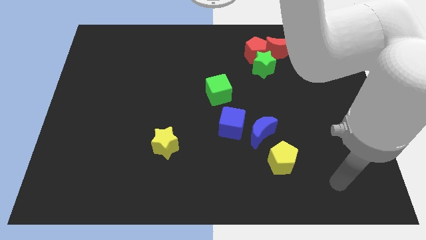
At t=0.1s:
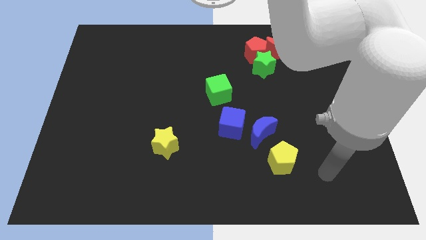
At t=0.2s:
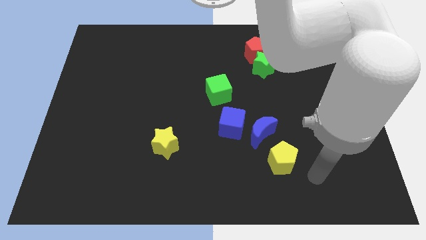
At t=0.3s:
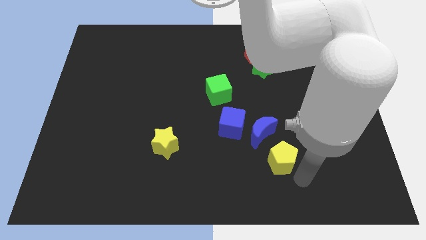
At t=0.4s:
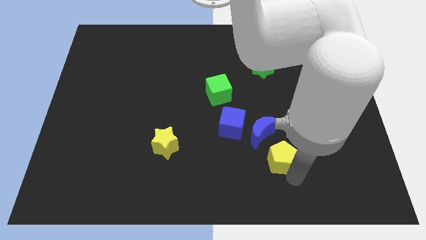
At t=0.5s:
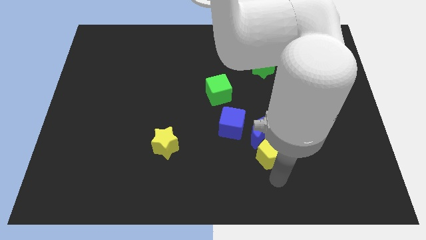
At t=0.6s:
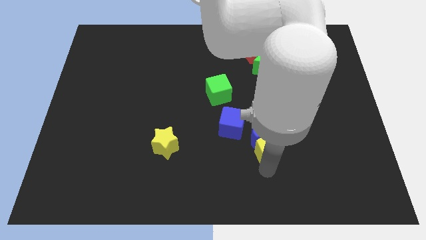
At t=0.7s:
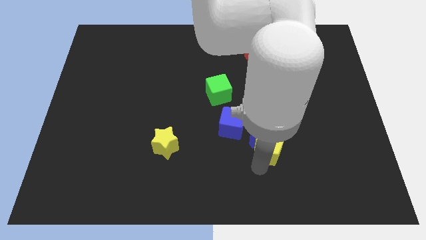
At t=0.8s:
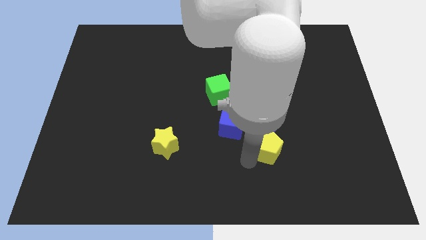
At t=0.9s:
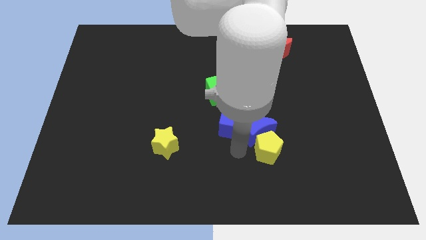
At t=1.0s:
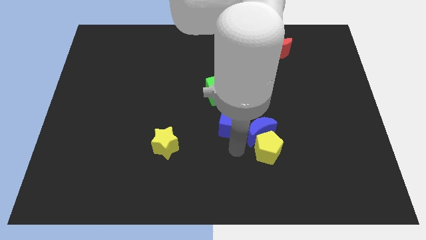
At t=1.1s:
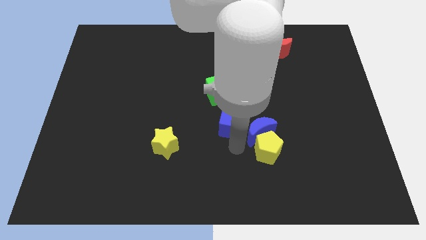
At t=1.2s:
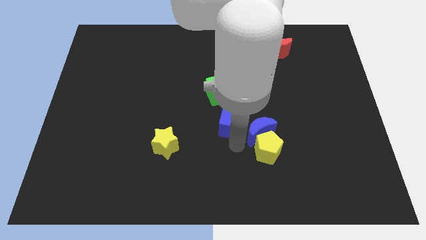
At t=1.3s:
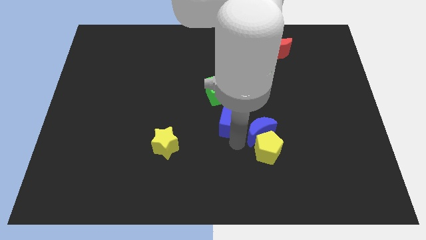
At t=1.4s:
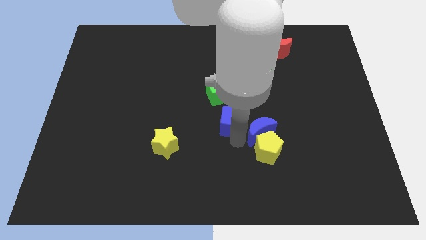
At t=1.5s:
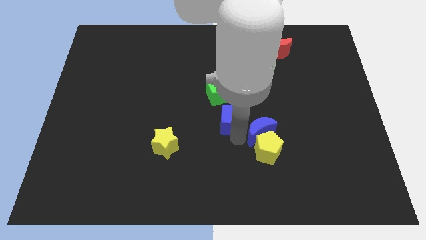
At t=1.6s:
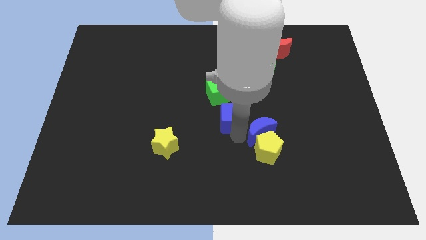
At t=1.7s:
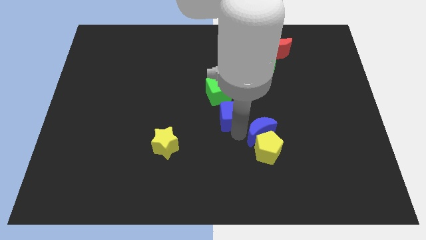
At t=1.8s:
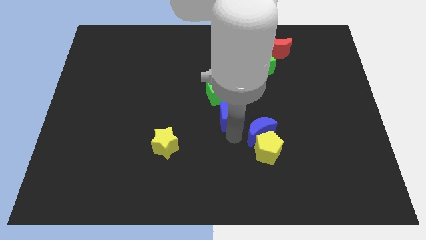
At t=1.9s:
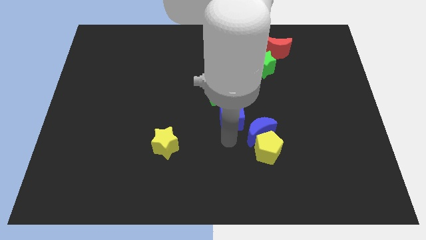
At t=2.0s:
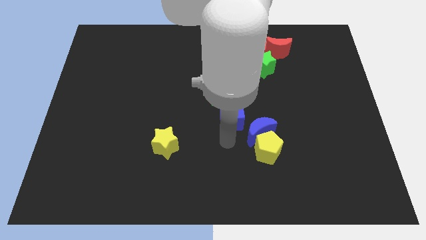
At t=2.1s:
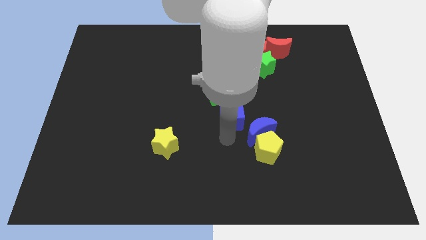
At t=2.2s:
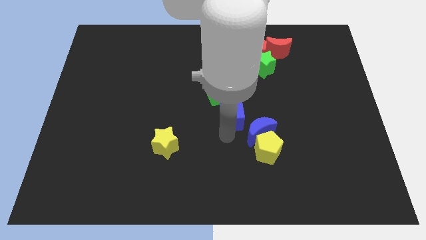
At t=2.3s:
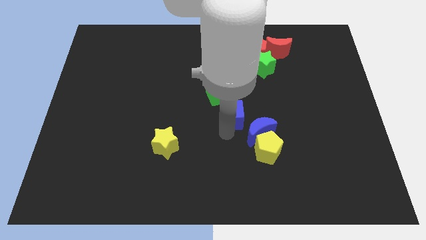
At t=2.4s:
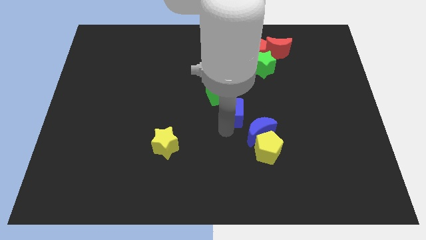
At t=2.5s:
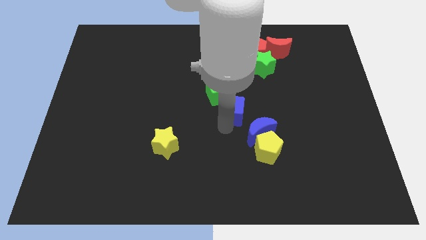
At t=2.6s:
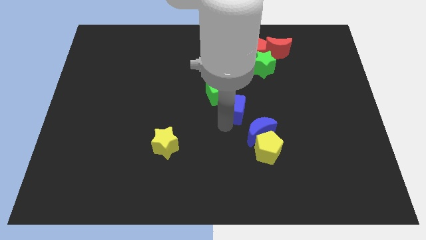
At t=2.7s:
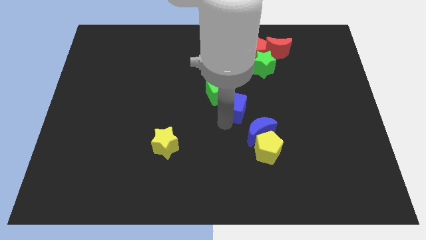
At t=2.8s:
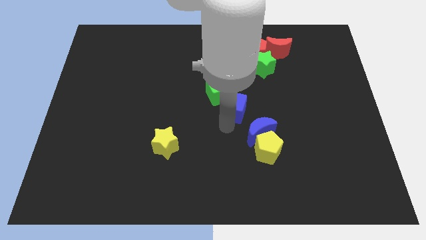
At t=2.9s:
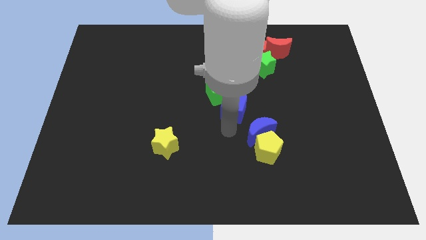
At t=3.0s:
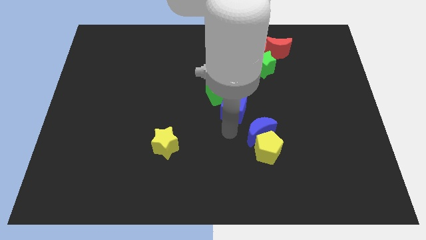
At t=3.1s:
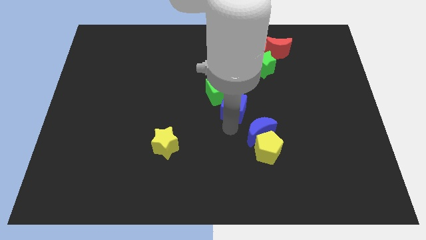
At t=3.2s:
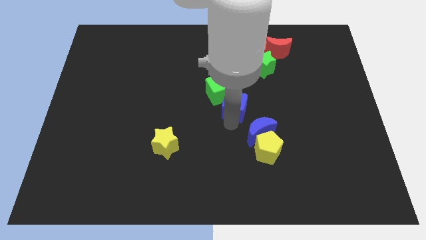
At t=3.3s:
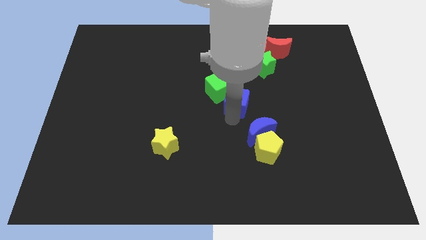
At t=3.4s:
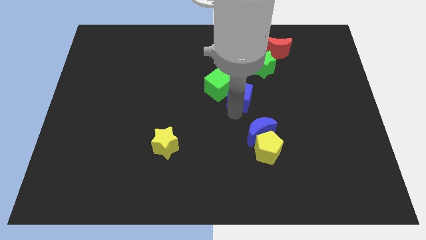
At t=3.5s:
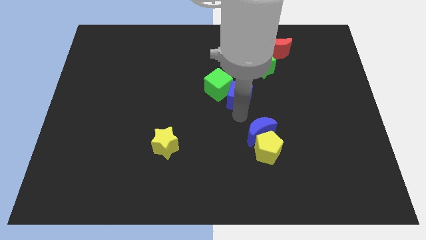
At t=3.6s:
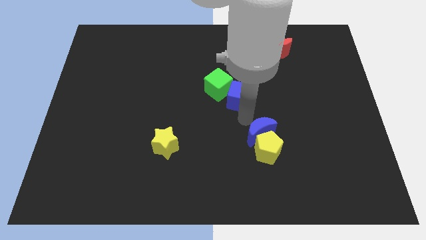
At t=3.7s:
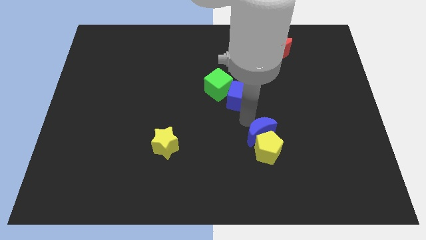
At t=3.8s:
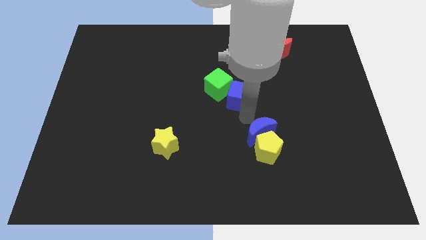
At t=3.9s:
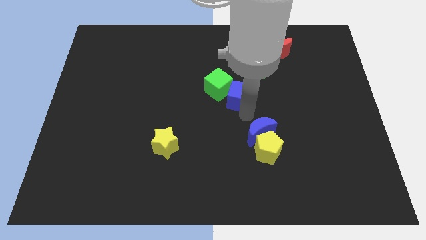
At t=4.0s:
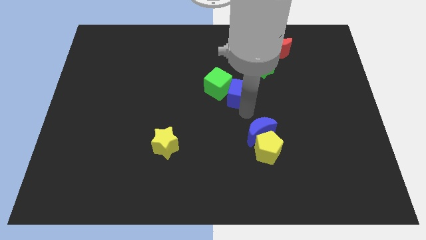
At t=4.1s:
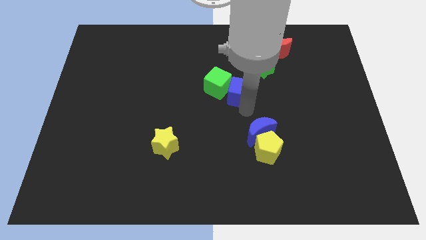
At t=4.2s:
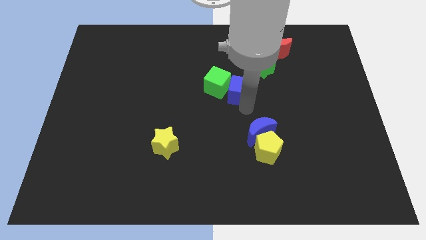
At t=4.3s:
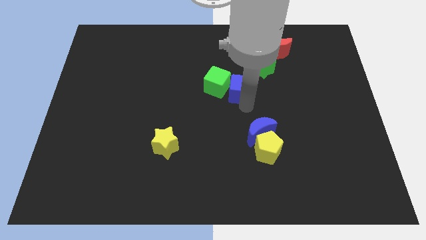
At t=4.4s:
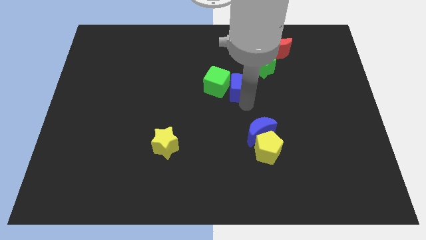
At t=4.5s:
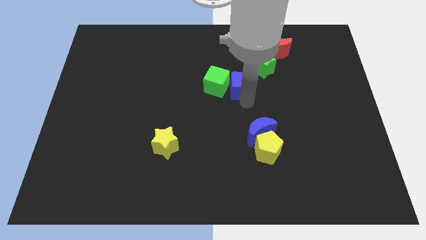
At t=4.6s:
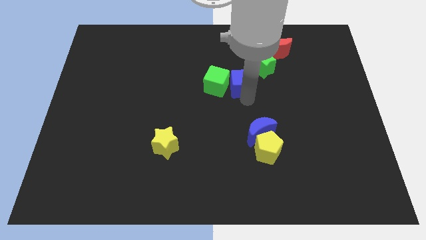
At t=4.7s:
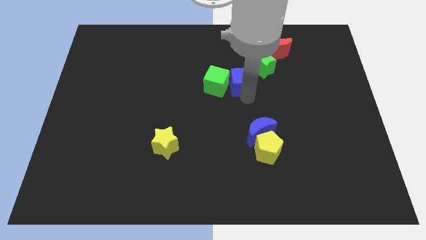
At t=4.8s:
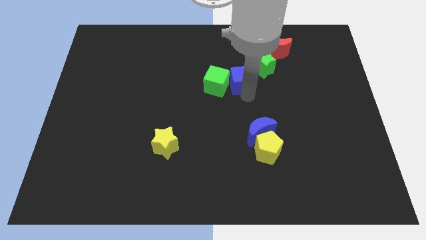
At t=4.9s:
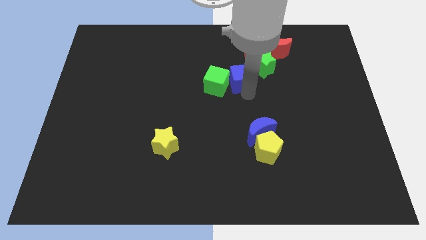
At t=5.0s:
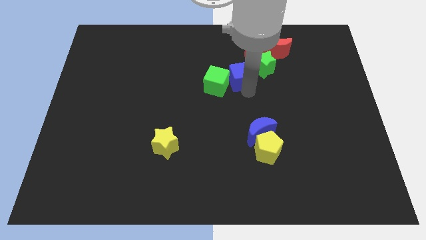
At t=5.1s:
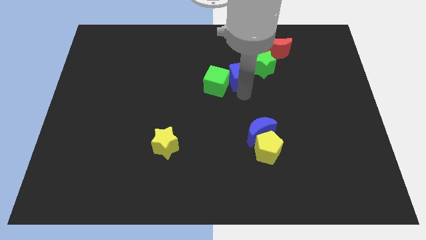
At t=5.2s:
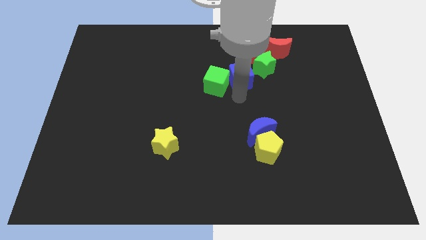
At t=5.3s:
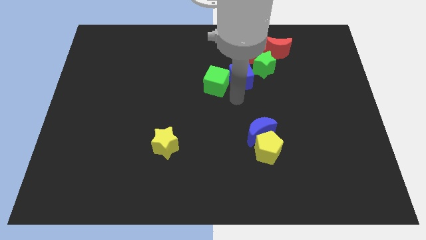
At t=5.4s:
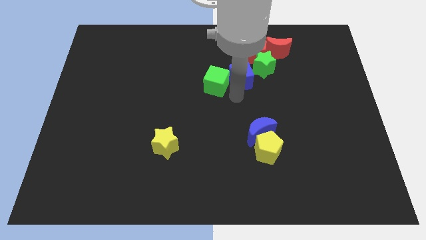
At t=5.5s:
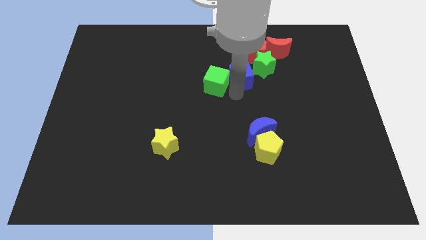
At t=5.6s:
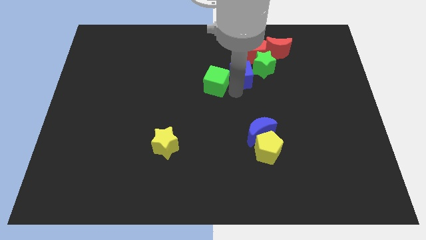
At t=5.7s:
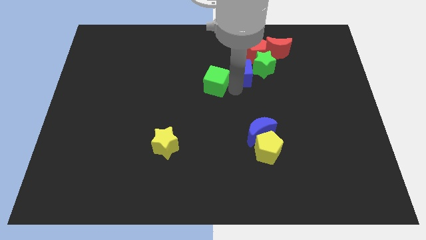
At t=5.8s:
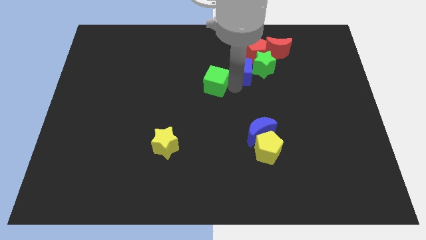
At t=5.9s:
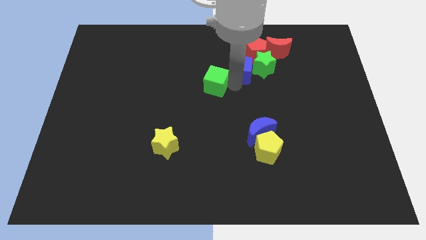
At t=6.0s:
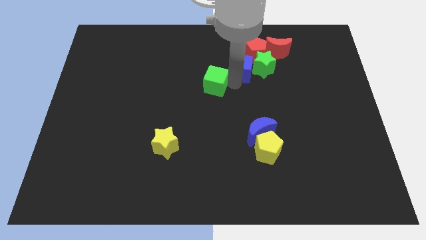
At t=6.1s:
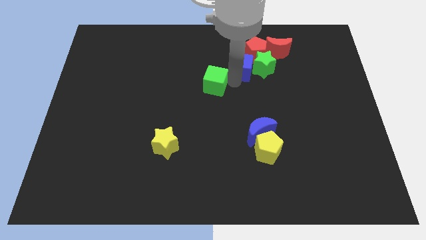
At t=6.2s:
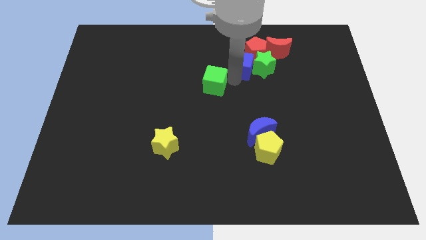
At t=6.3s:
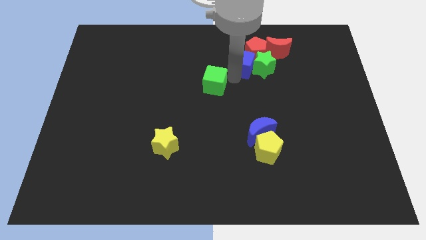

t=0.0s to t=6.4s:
put the blue cube to the red pentagon

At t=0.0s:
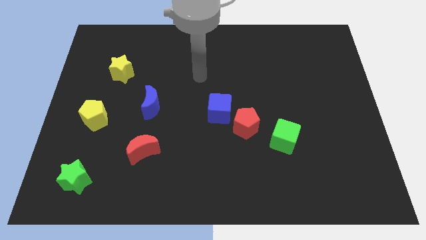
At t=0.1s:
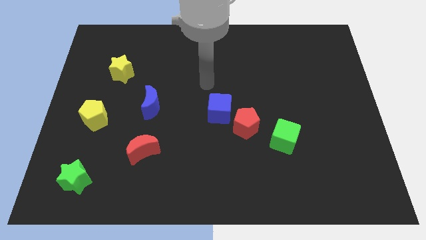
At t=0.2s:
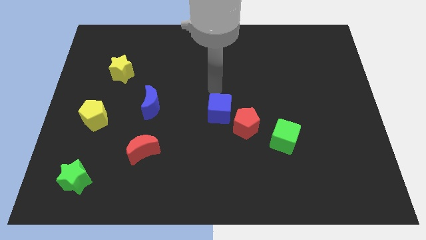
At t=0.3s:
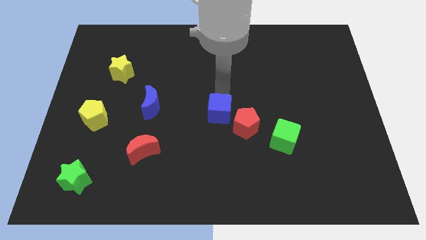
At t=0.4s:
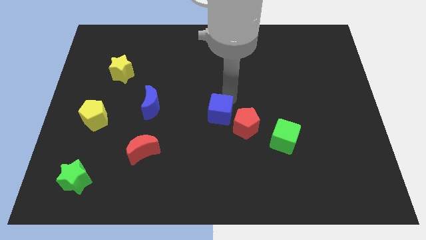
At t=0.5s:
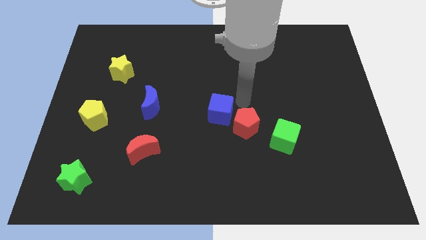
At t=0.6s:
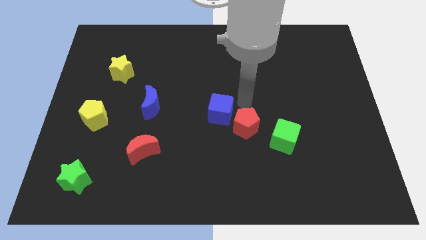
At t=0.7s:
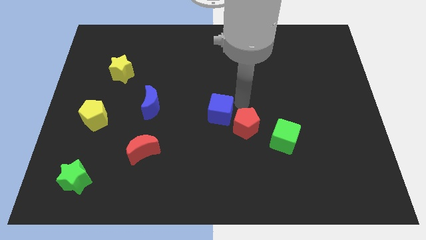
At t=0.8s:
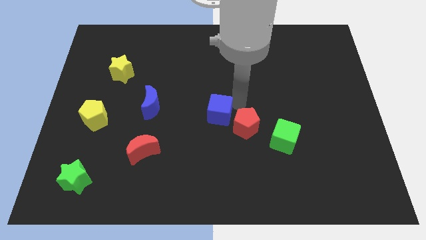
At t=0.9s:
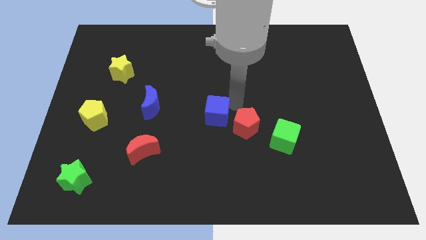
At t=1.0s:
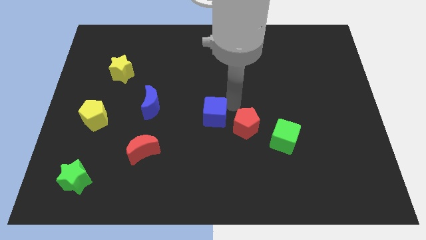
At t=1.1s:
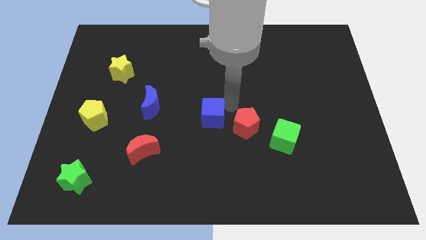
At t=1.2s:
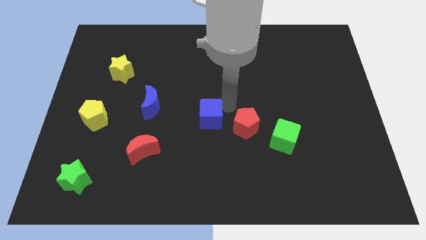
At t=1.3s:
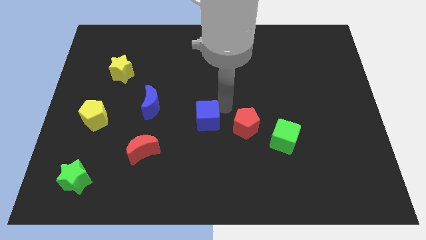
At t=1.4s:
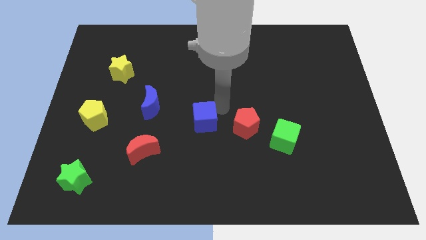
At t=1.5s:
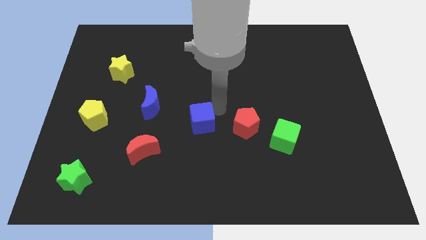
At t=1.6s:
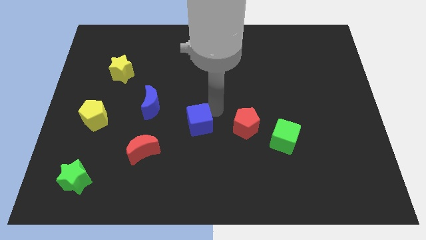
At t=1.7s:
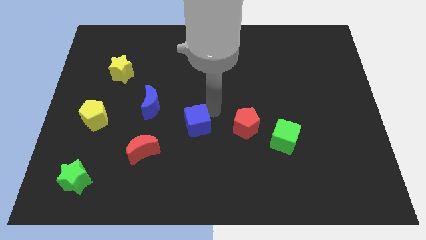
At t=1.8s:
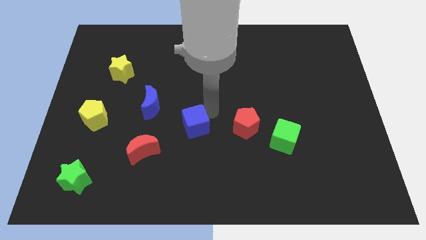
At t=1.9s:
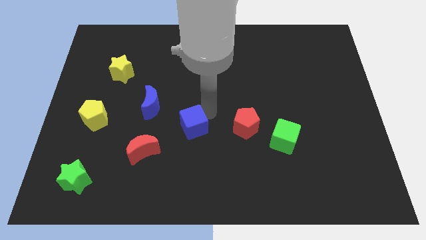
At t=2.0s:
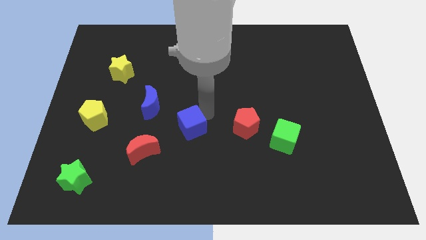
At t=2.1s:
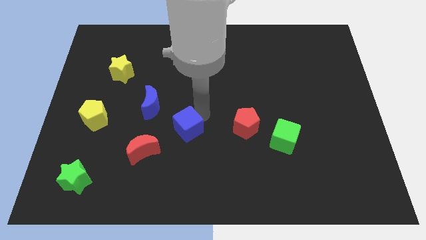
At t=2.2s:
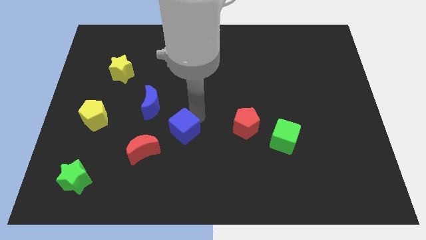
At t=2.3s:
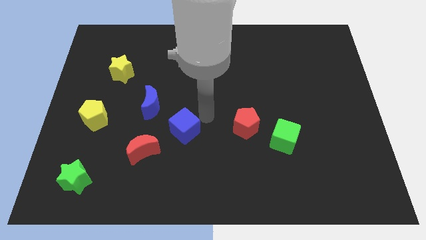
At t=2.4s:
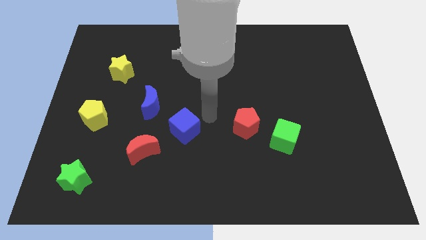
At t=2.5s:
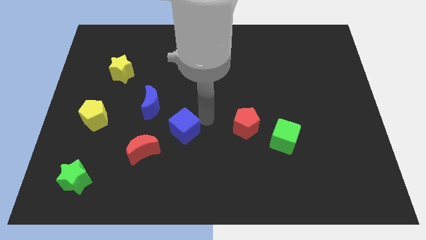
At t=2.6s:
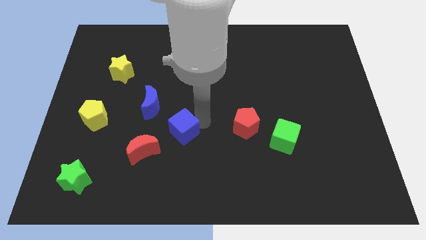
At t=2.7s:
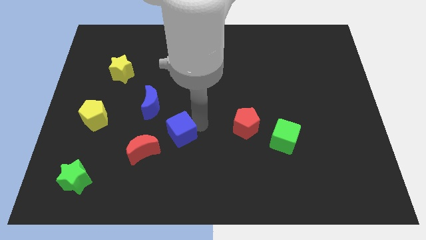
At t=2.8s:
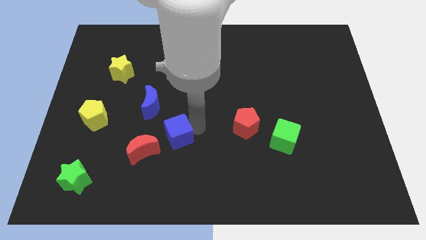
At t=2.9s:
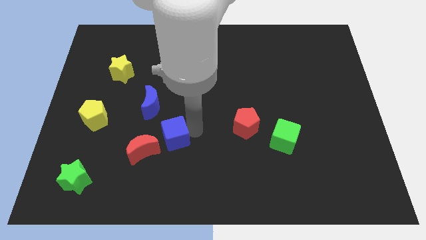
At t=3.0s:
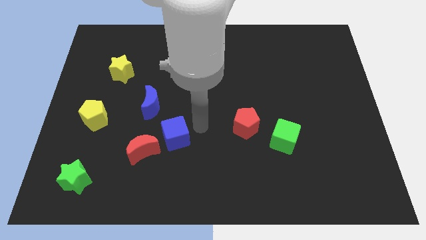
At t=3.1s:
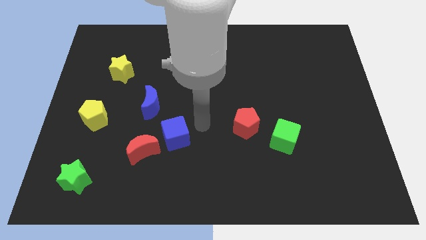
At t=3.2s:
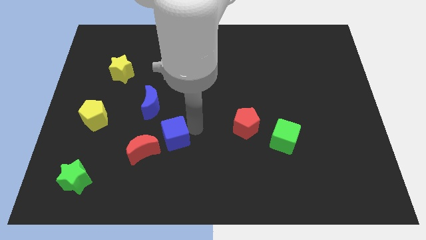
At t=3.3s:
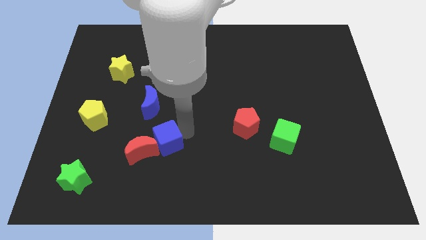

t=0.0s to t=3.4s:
slide the blue cube to the red moon
